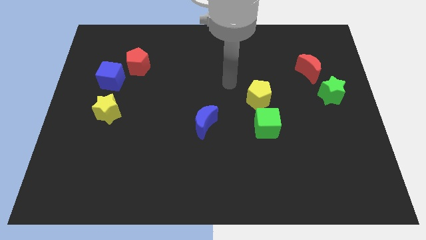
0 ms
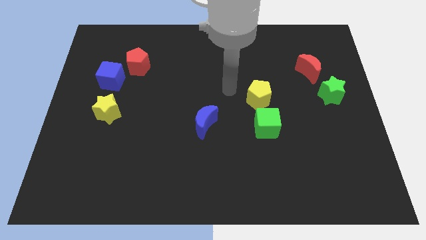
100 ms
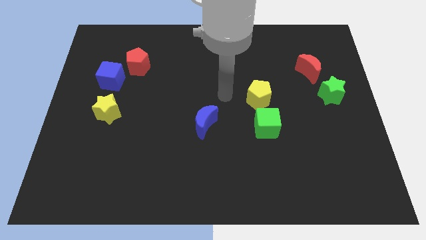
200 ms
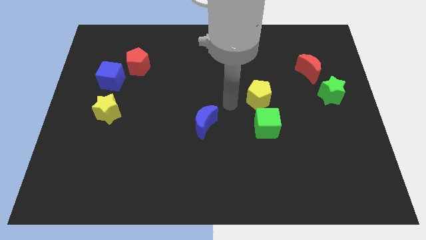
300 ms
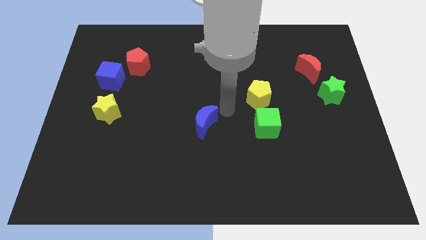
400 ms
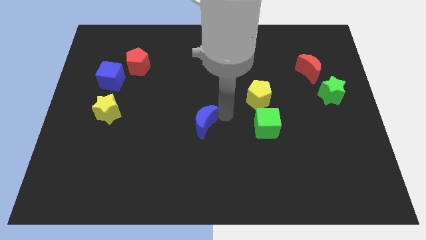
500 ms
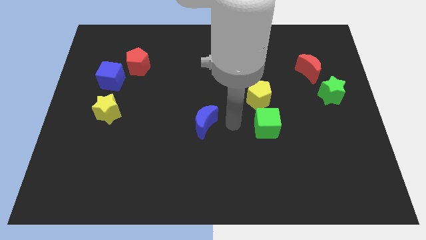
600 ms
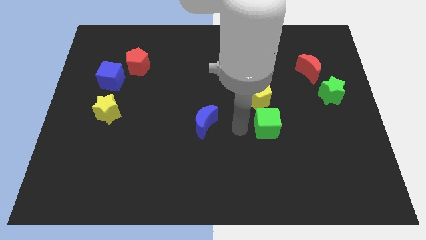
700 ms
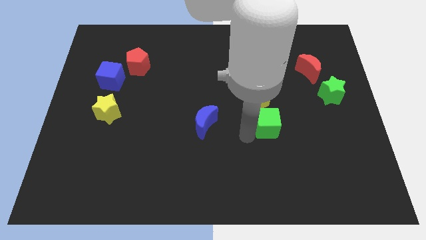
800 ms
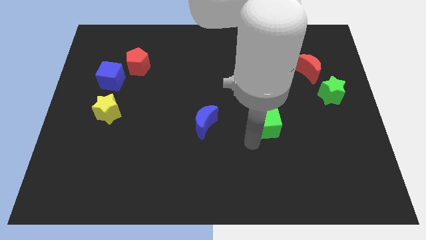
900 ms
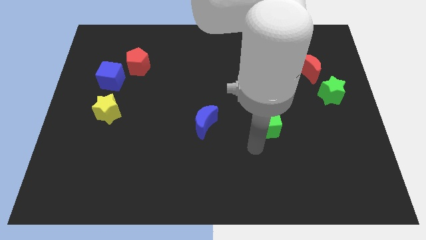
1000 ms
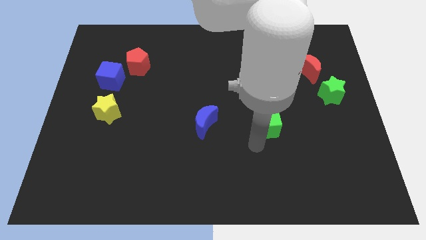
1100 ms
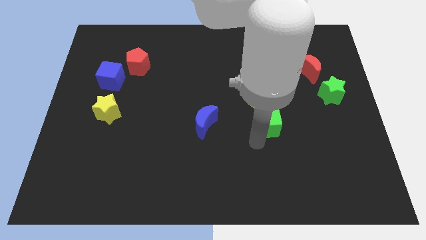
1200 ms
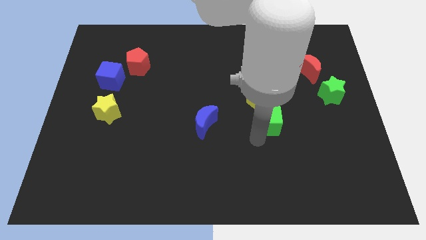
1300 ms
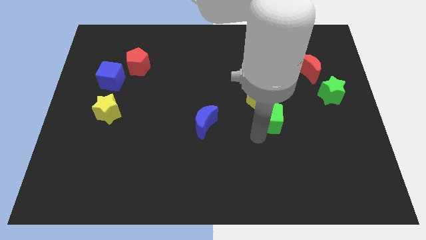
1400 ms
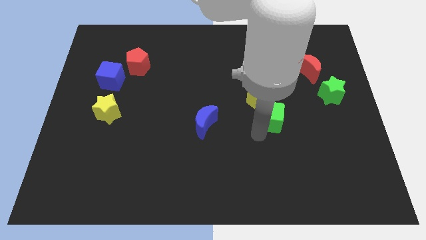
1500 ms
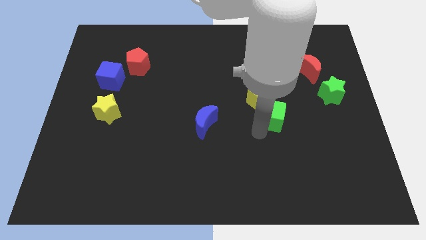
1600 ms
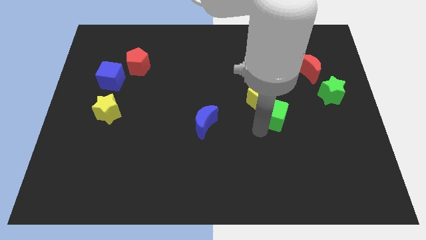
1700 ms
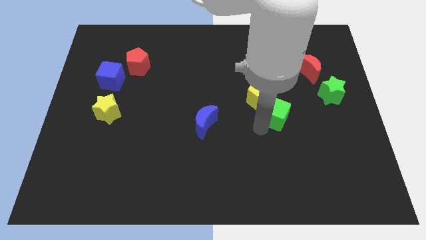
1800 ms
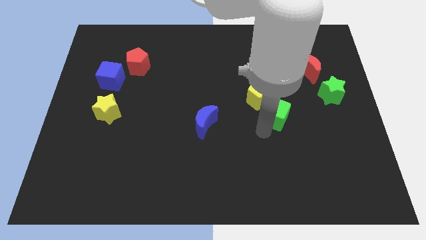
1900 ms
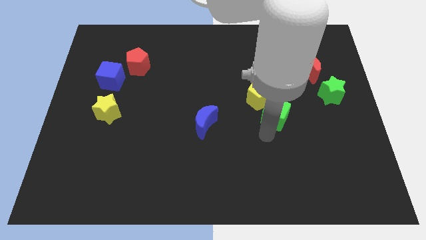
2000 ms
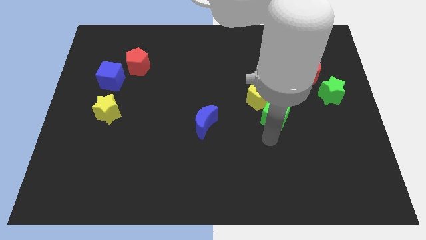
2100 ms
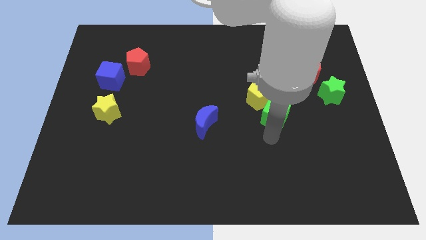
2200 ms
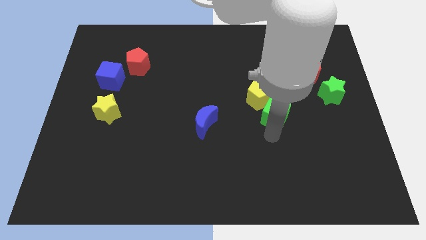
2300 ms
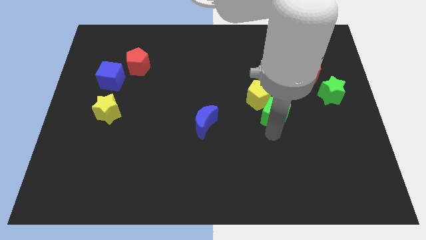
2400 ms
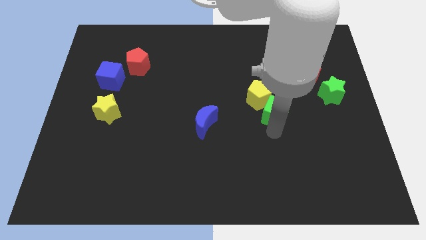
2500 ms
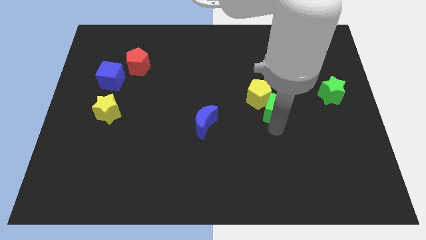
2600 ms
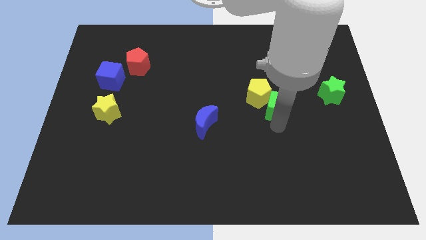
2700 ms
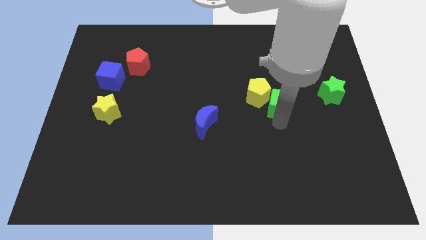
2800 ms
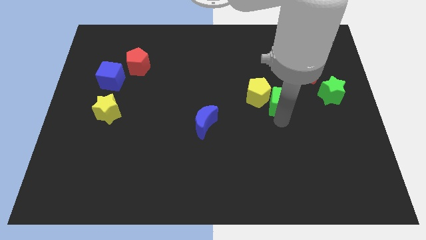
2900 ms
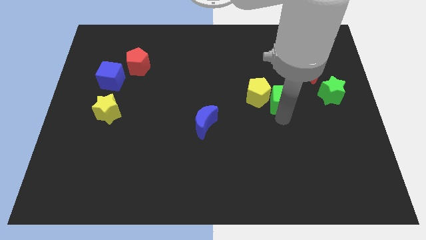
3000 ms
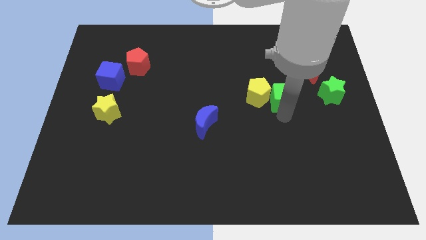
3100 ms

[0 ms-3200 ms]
move the green cube a little bit up

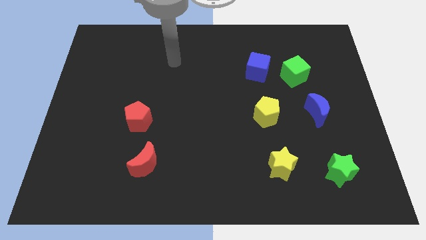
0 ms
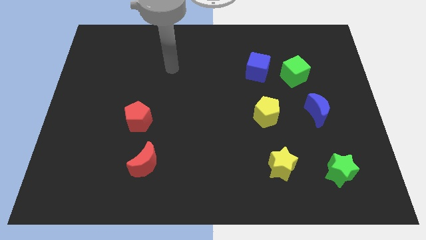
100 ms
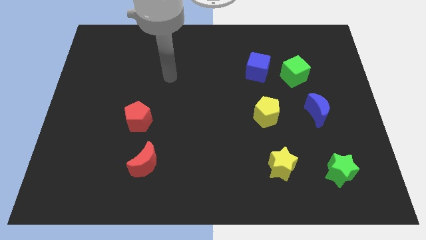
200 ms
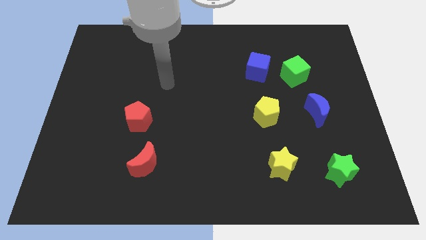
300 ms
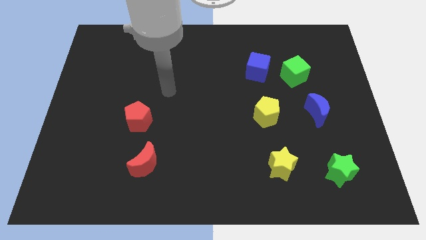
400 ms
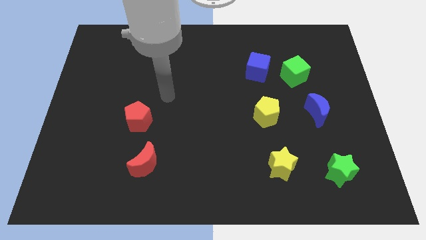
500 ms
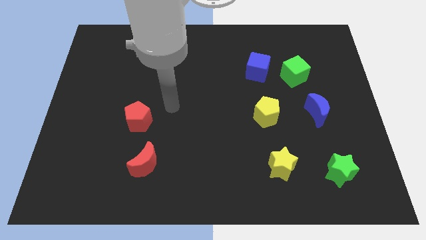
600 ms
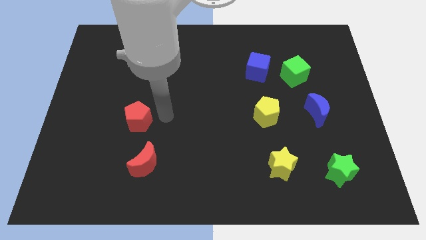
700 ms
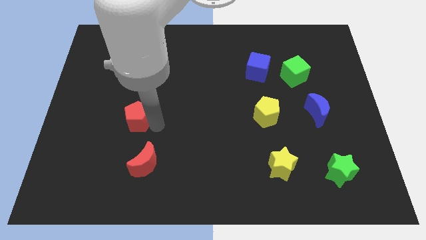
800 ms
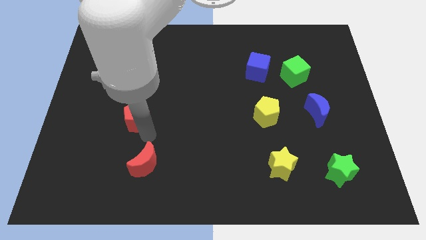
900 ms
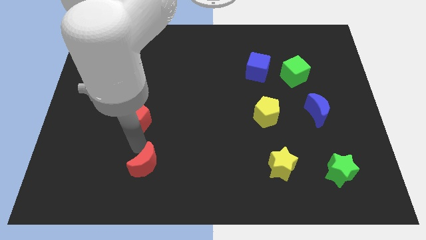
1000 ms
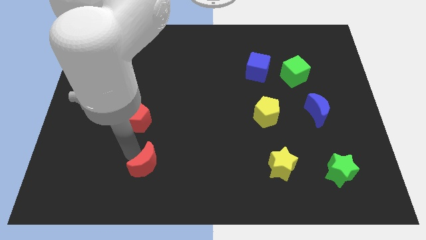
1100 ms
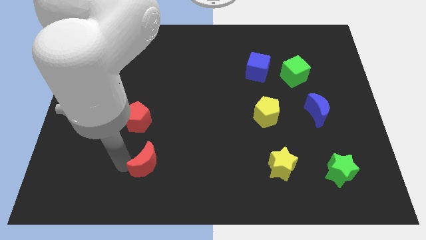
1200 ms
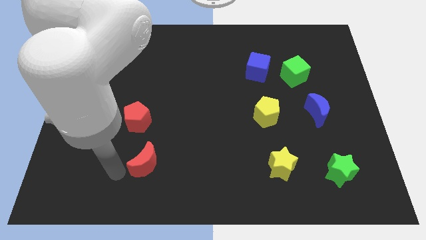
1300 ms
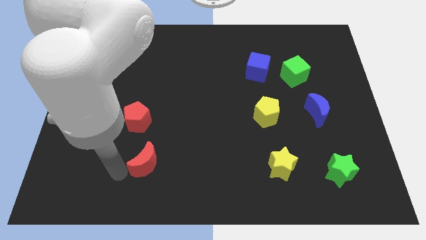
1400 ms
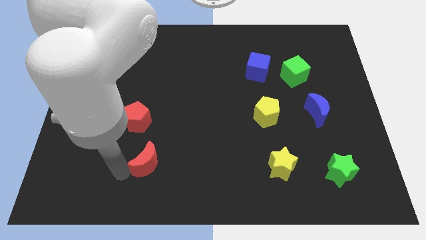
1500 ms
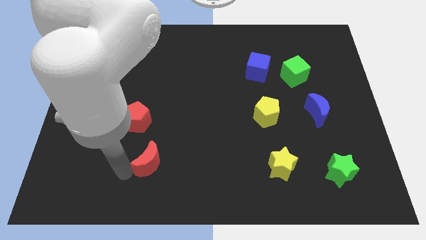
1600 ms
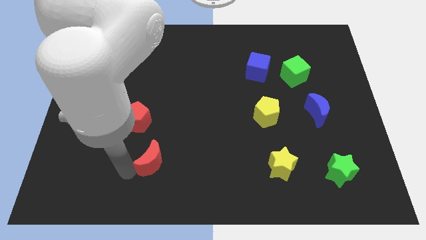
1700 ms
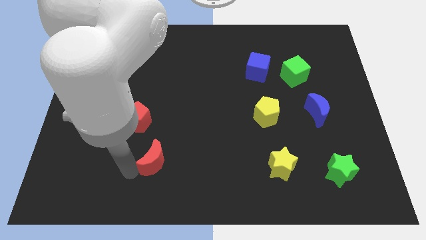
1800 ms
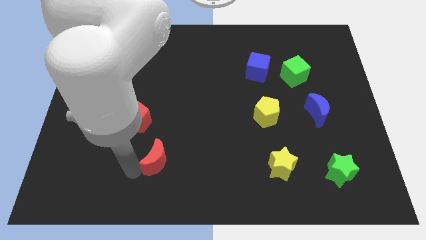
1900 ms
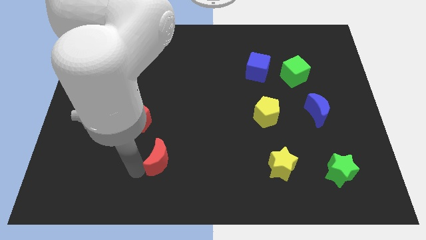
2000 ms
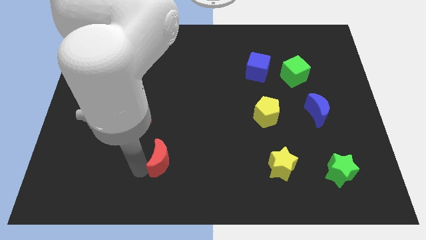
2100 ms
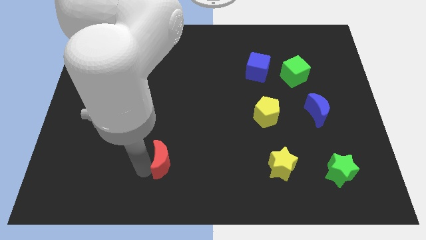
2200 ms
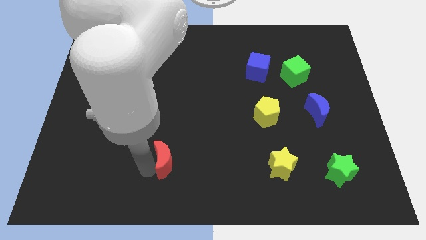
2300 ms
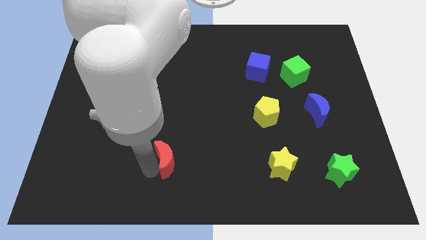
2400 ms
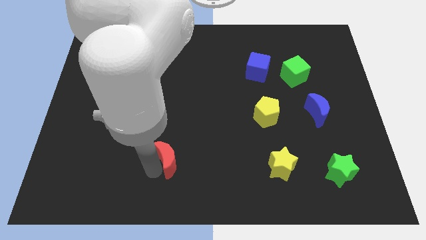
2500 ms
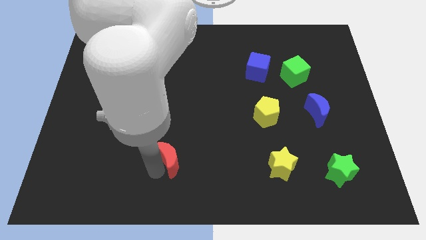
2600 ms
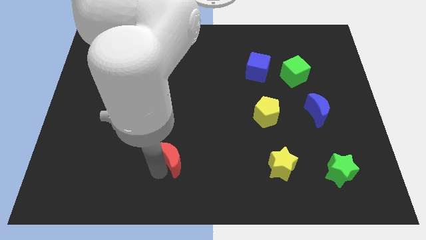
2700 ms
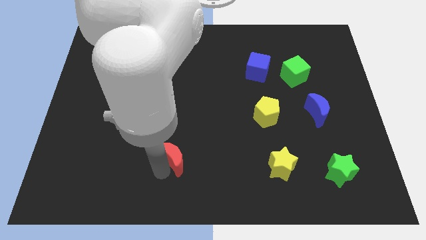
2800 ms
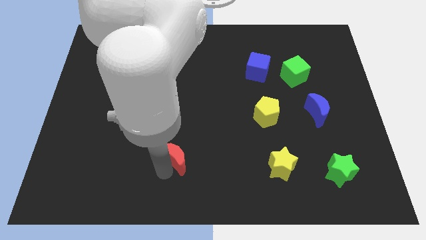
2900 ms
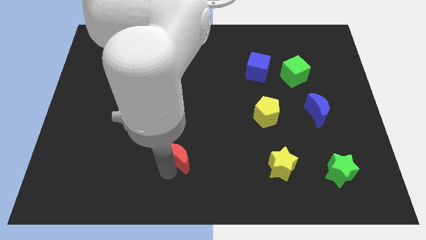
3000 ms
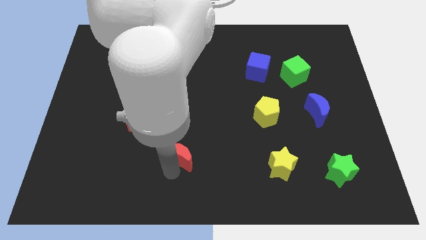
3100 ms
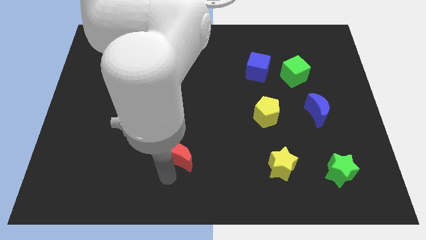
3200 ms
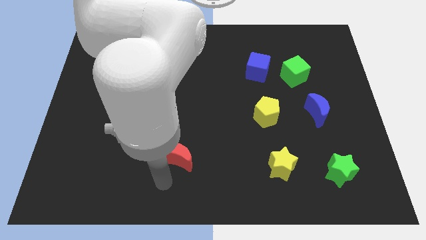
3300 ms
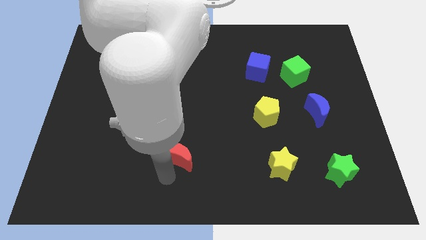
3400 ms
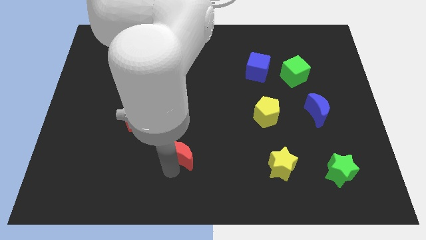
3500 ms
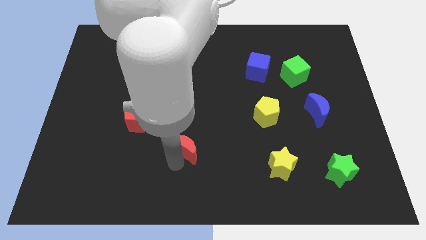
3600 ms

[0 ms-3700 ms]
slightly push the red moon diagonally upwards and right

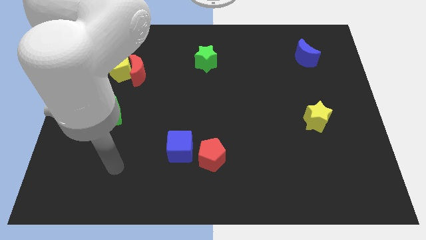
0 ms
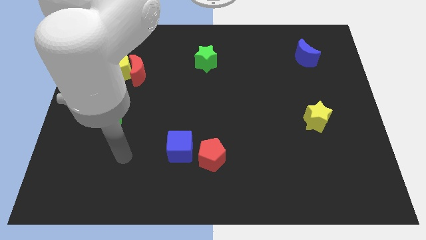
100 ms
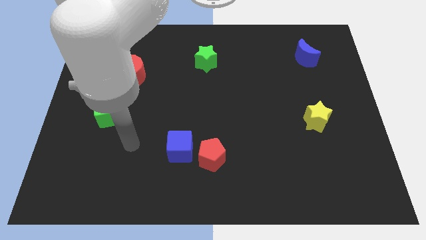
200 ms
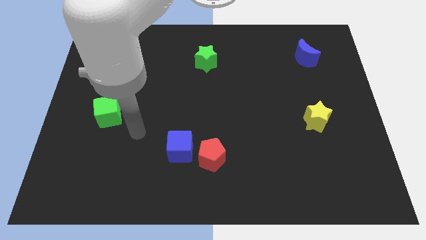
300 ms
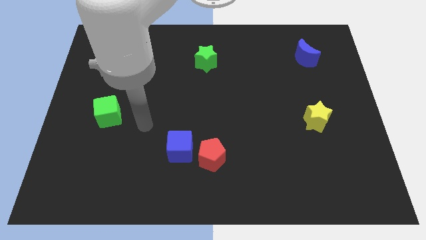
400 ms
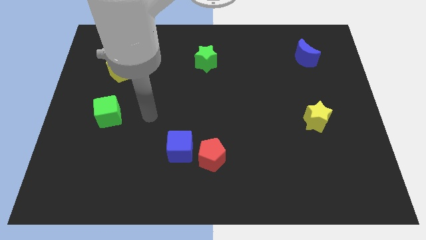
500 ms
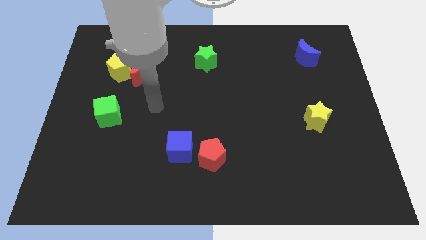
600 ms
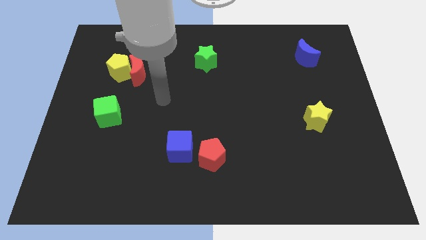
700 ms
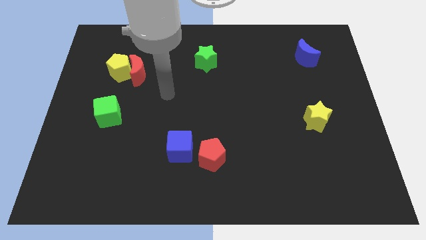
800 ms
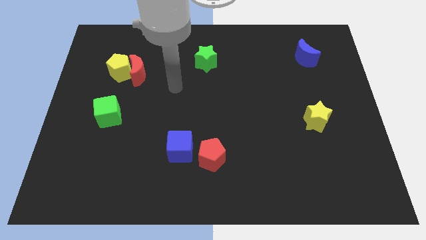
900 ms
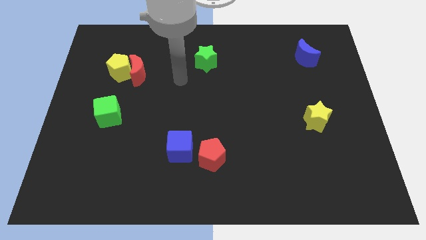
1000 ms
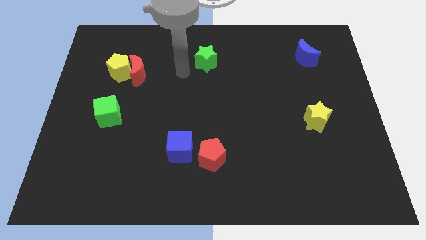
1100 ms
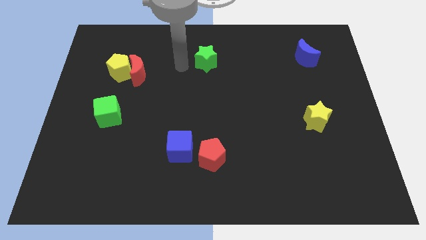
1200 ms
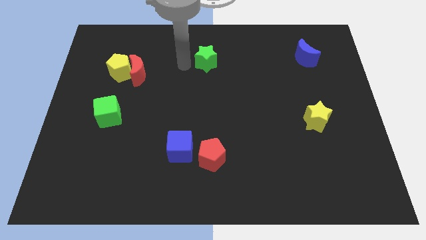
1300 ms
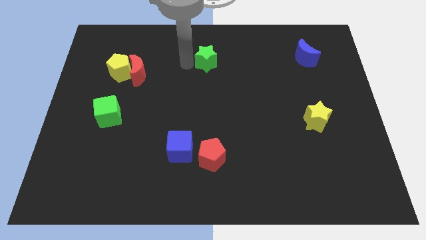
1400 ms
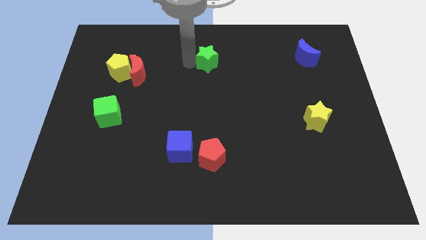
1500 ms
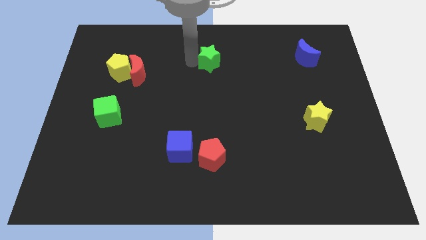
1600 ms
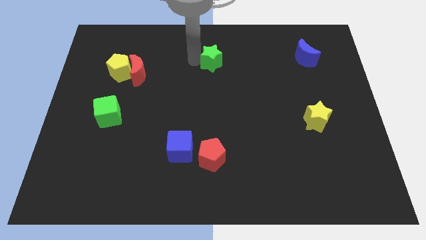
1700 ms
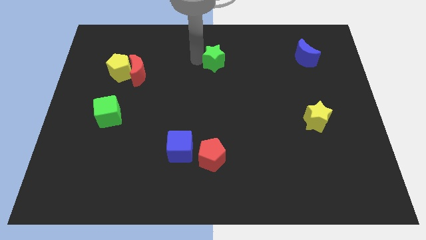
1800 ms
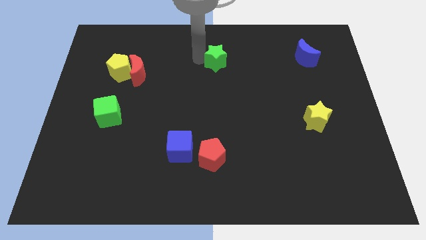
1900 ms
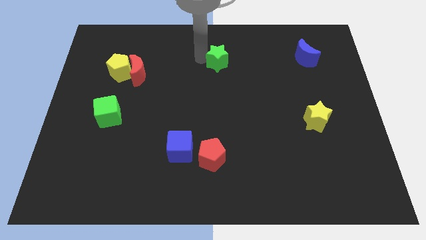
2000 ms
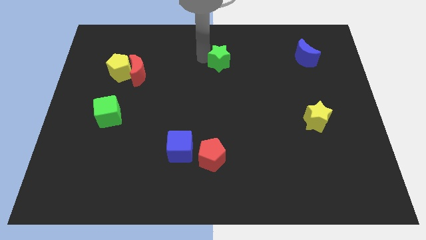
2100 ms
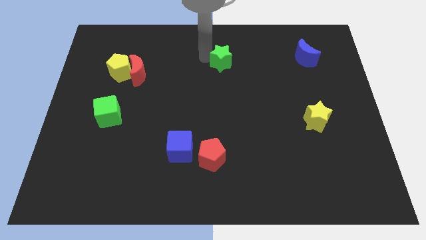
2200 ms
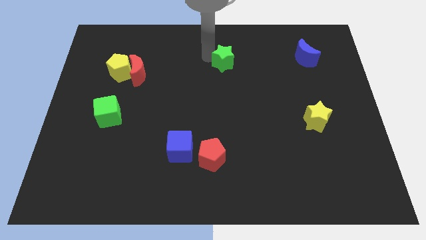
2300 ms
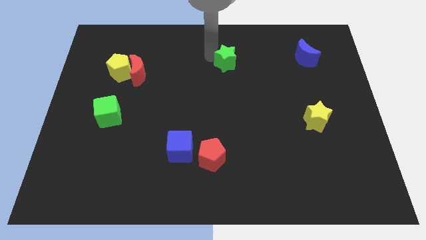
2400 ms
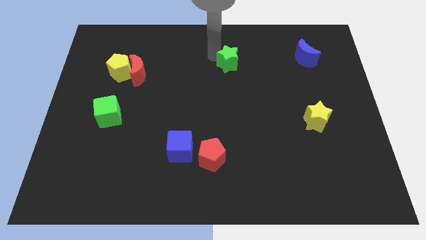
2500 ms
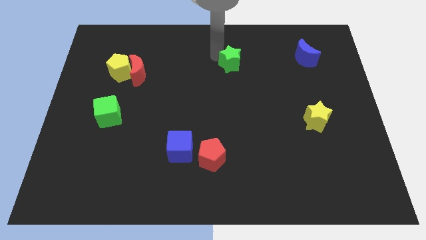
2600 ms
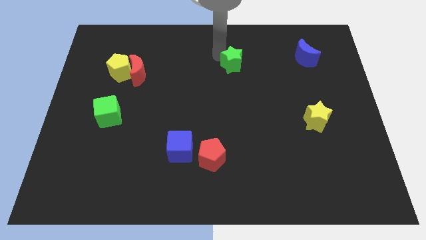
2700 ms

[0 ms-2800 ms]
slide the green star right slightly
